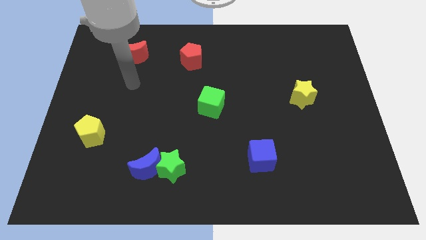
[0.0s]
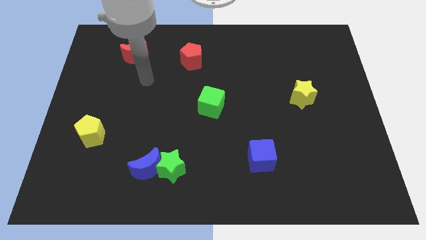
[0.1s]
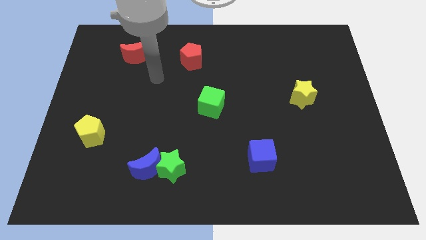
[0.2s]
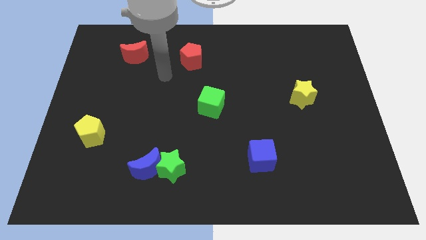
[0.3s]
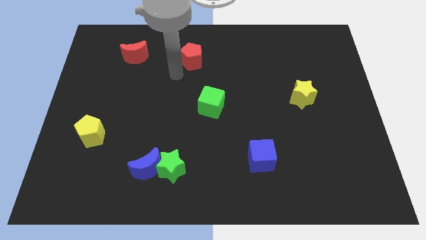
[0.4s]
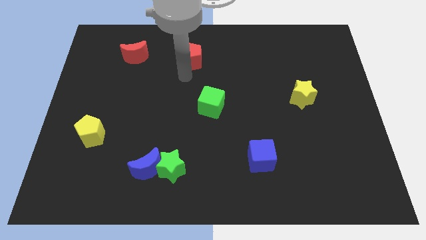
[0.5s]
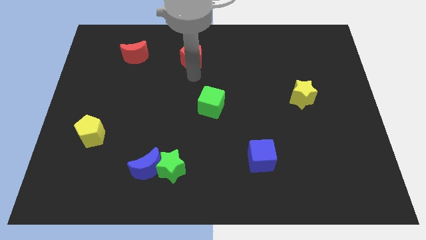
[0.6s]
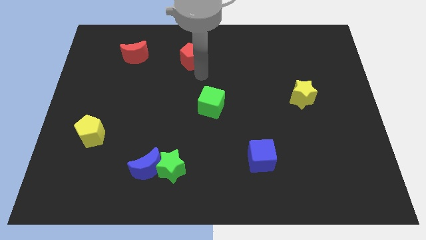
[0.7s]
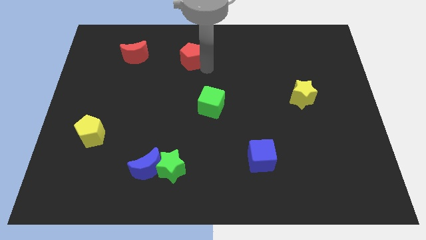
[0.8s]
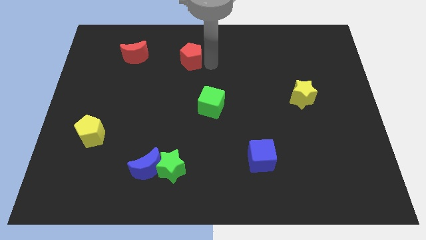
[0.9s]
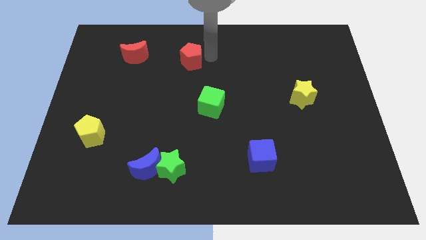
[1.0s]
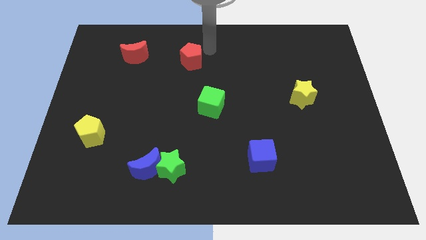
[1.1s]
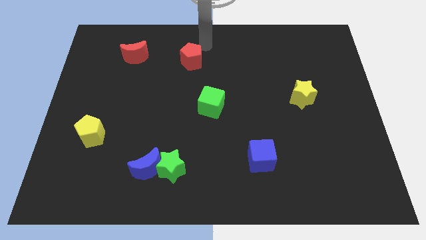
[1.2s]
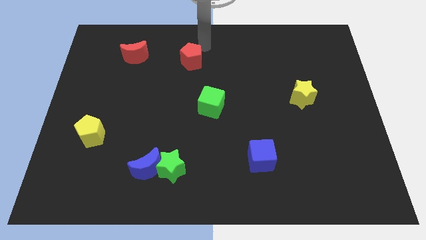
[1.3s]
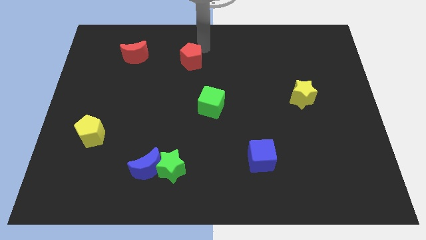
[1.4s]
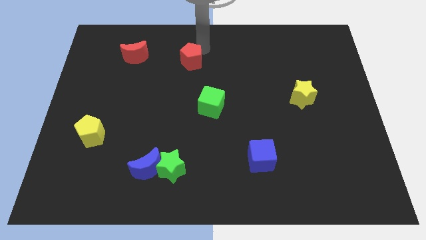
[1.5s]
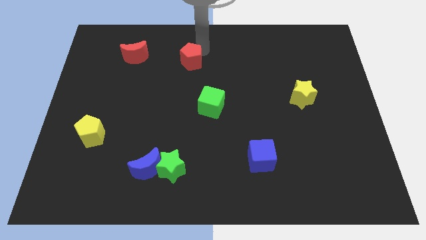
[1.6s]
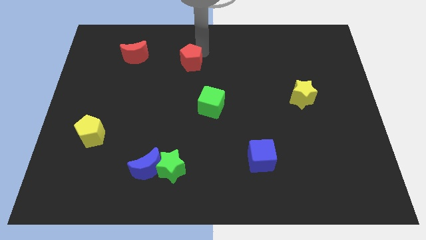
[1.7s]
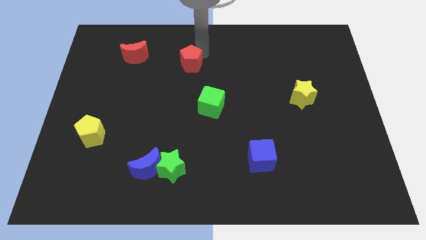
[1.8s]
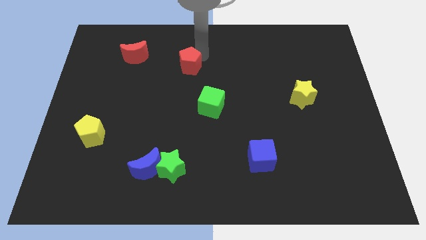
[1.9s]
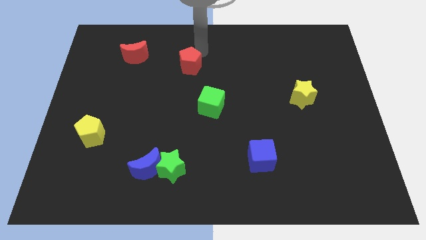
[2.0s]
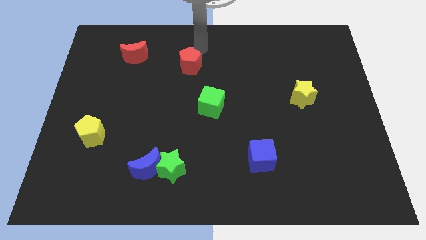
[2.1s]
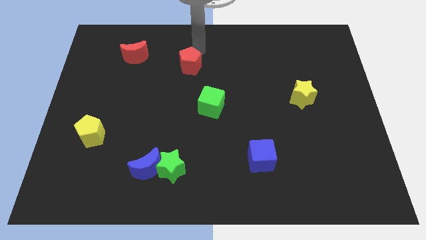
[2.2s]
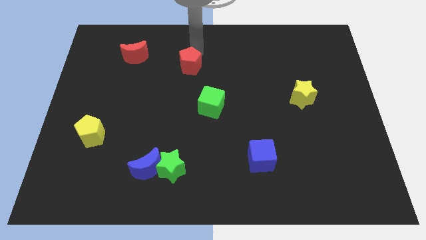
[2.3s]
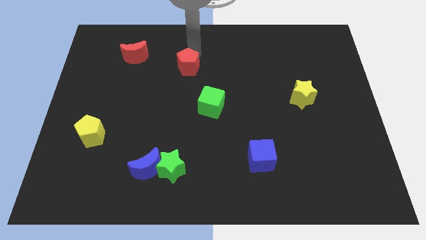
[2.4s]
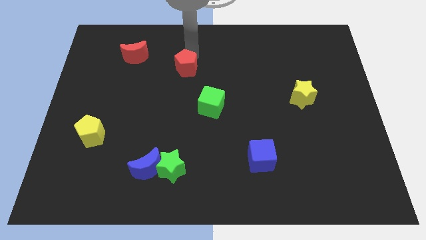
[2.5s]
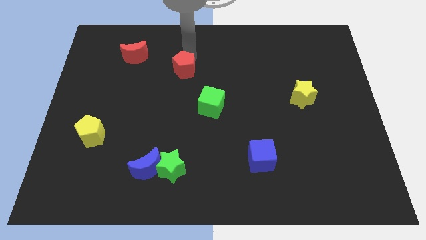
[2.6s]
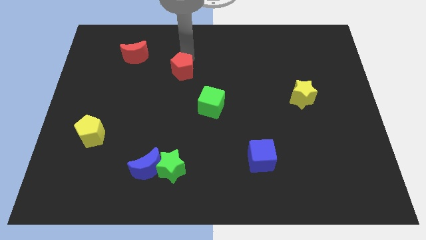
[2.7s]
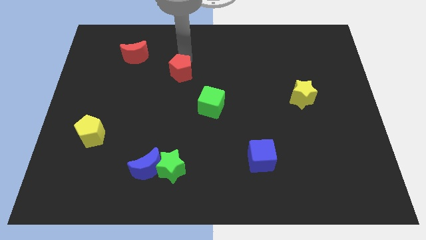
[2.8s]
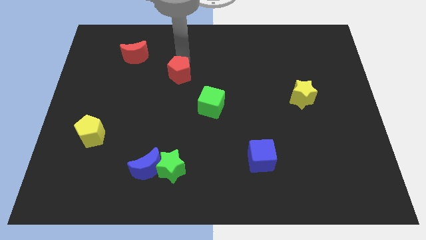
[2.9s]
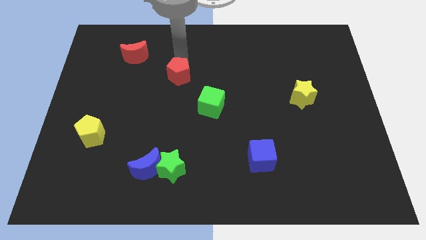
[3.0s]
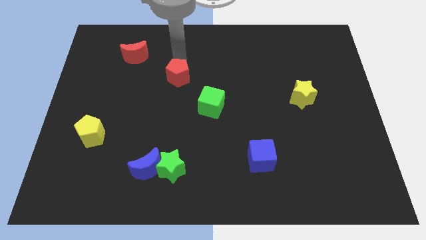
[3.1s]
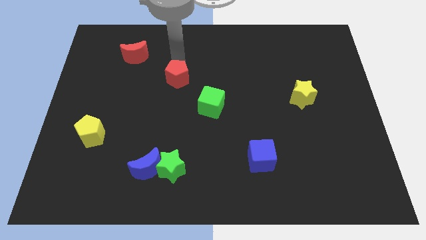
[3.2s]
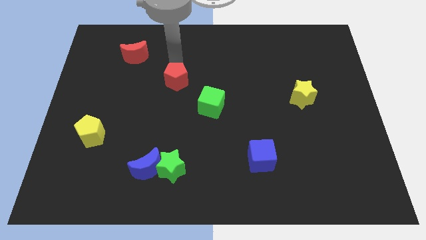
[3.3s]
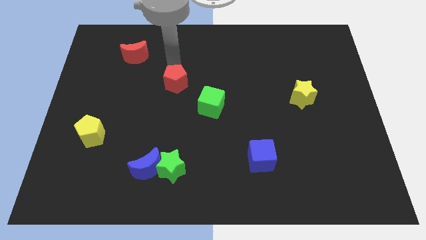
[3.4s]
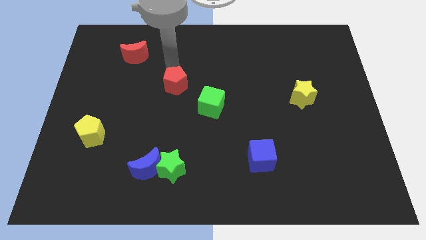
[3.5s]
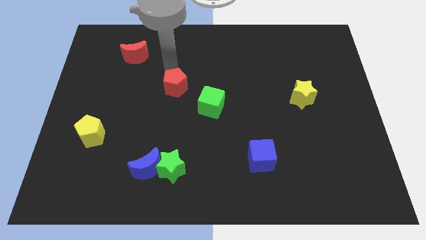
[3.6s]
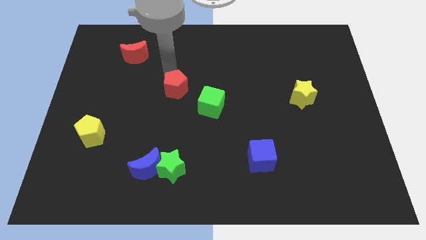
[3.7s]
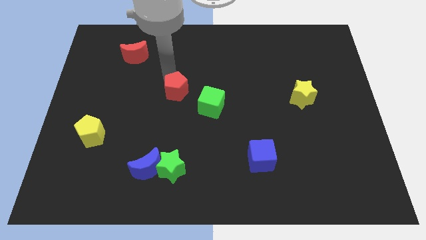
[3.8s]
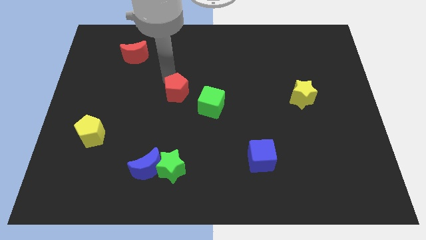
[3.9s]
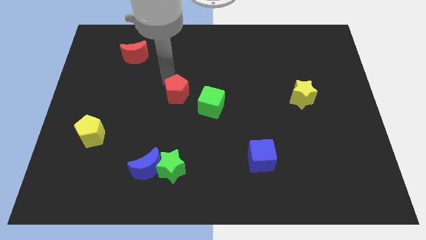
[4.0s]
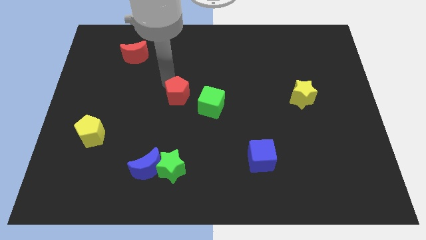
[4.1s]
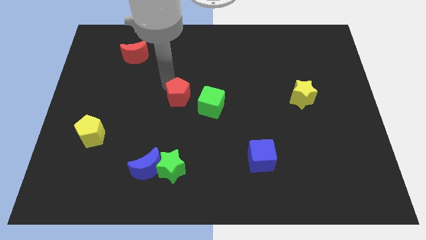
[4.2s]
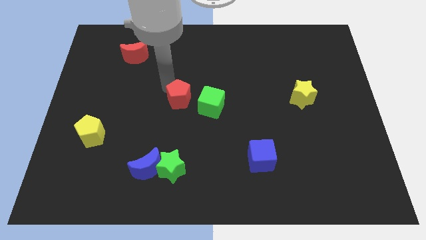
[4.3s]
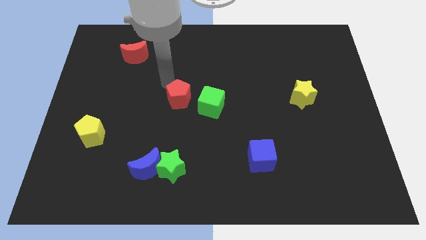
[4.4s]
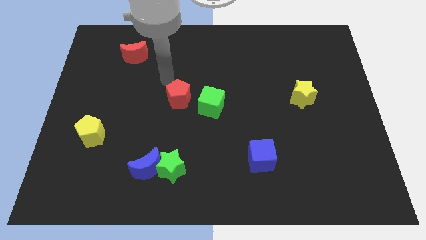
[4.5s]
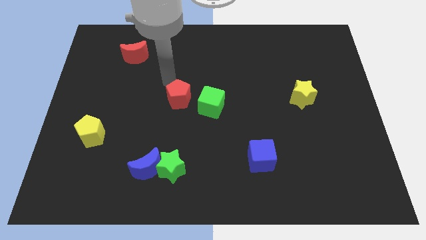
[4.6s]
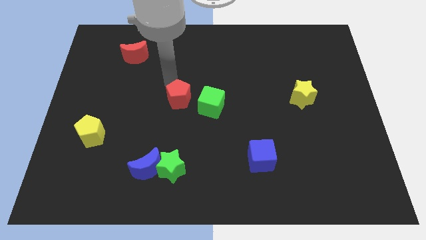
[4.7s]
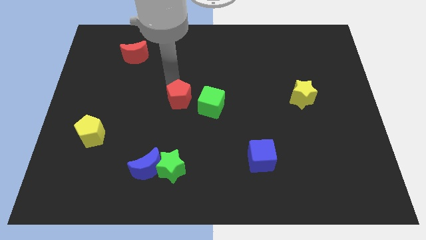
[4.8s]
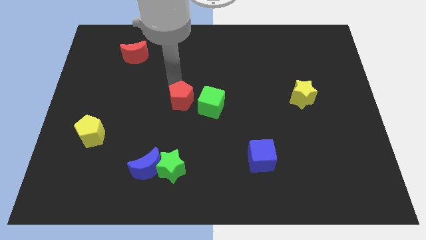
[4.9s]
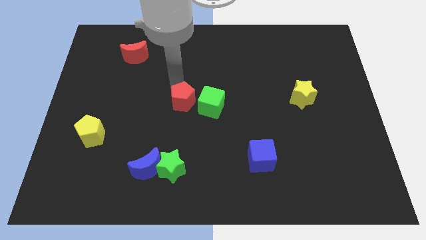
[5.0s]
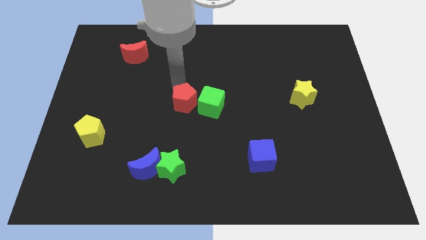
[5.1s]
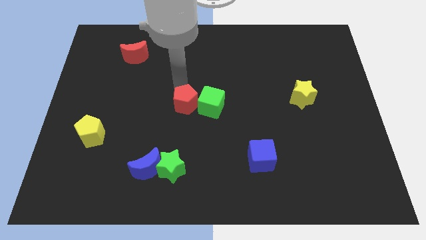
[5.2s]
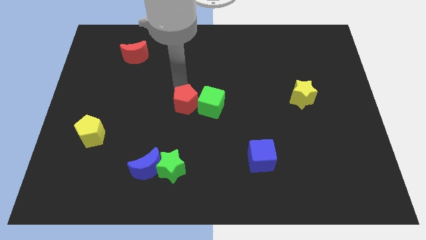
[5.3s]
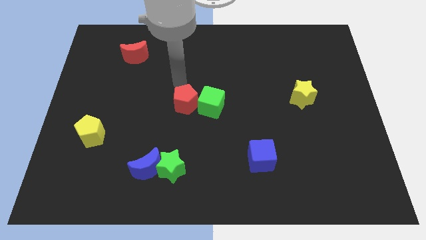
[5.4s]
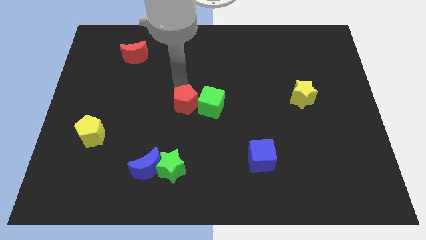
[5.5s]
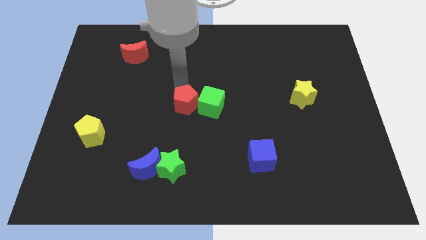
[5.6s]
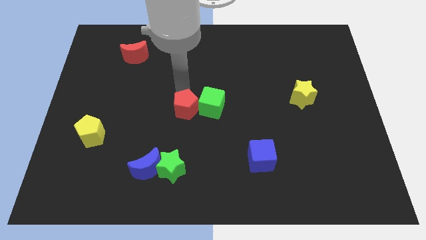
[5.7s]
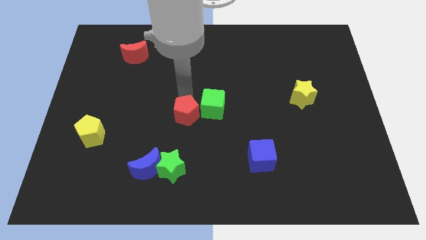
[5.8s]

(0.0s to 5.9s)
put the red pentagon to the top of the green star
